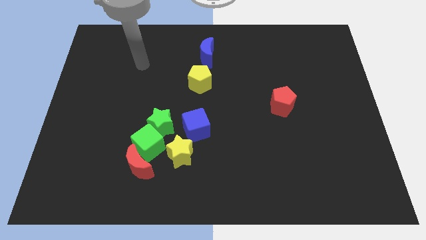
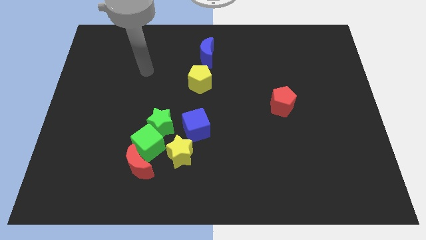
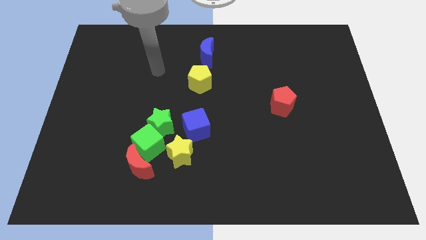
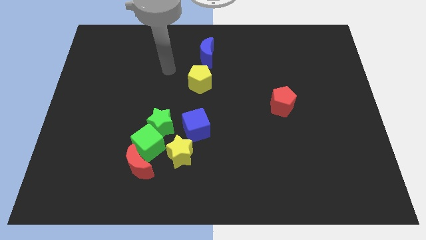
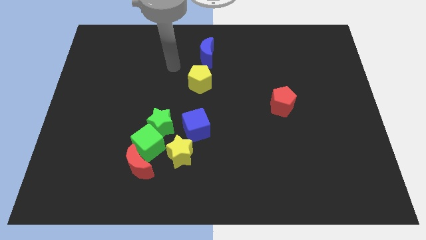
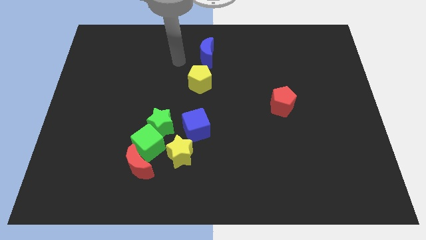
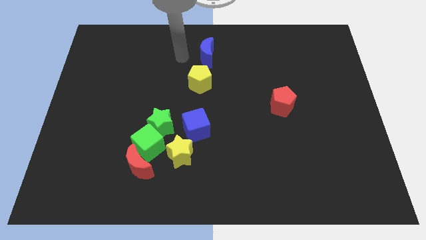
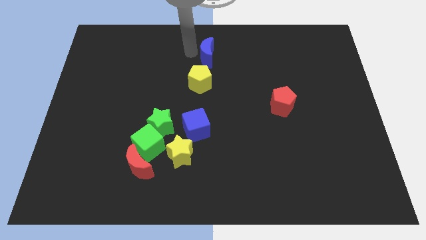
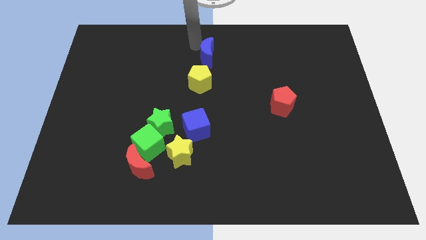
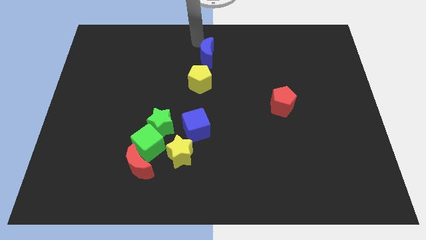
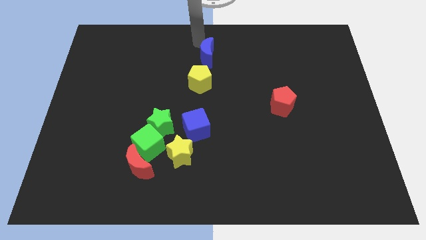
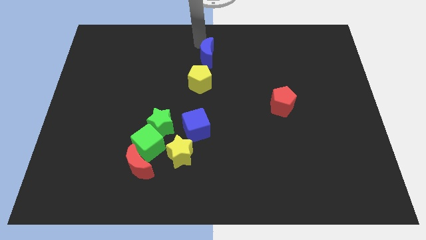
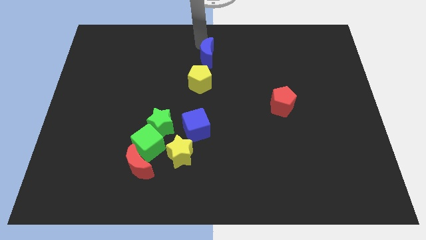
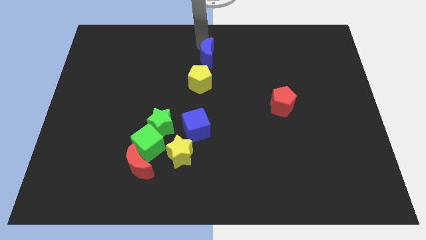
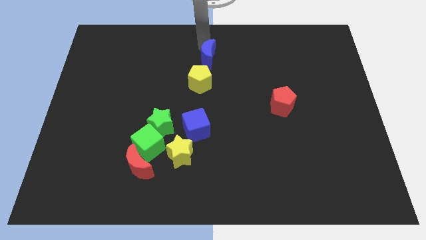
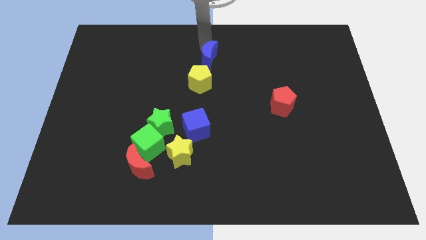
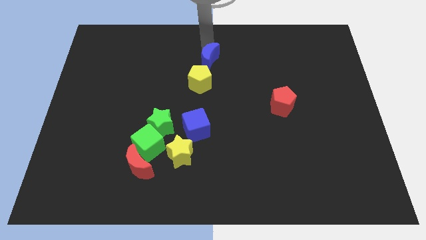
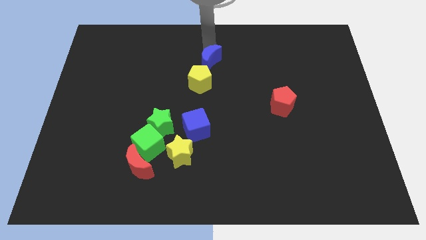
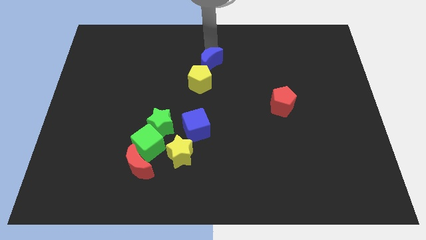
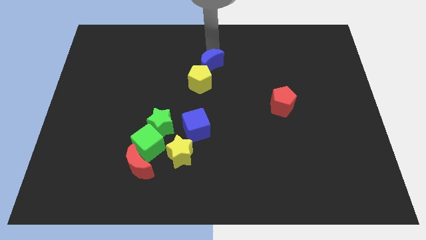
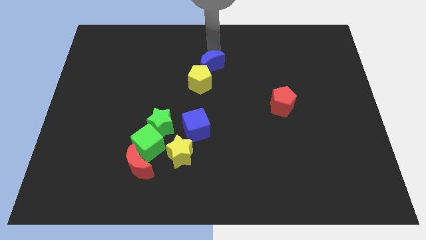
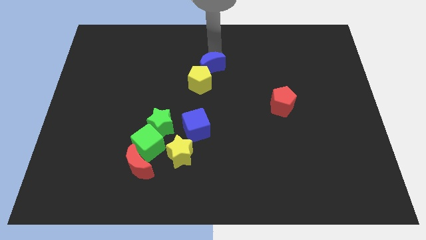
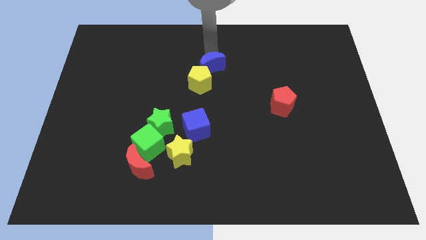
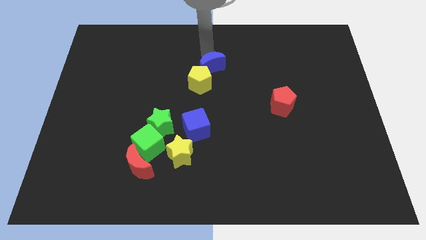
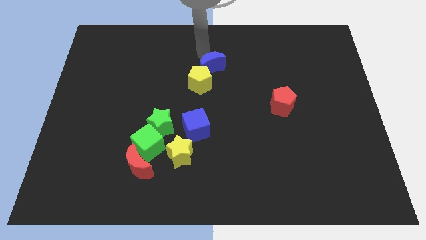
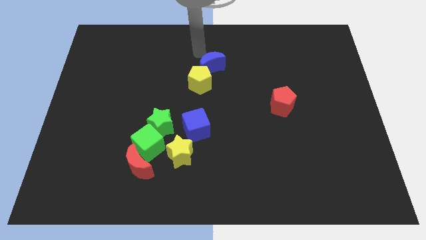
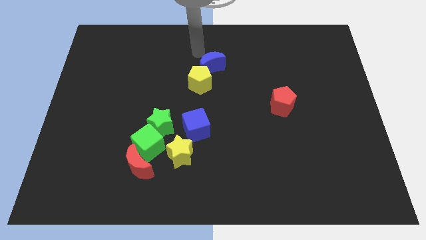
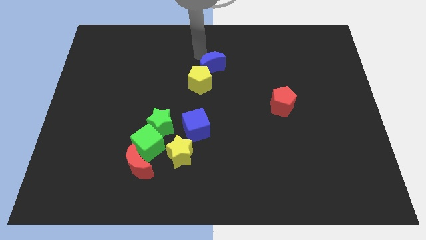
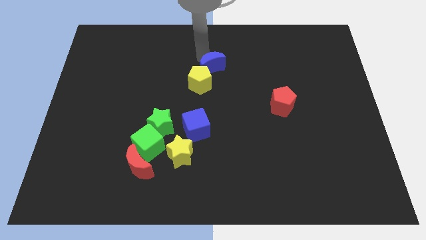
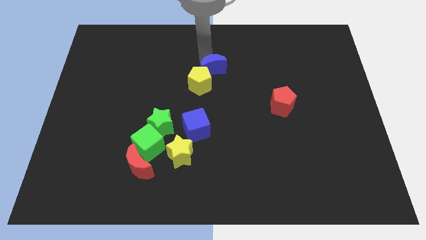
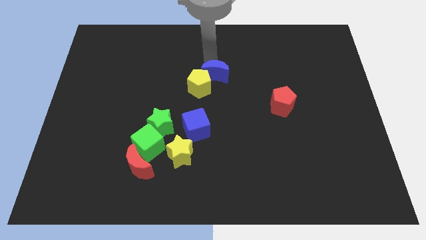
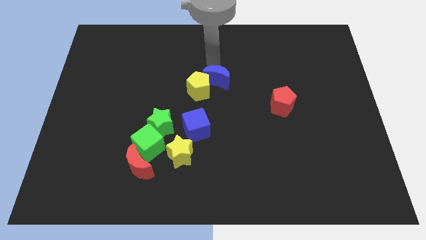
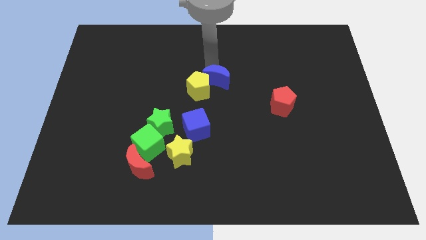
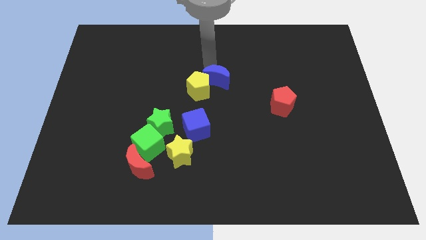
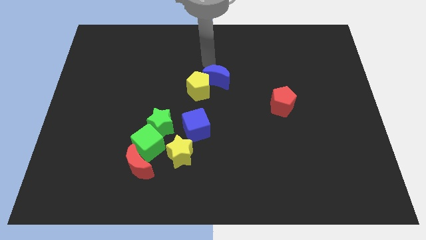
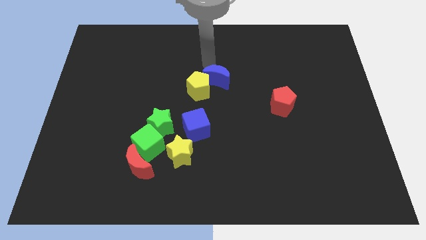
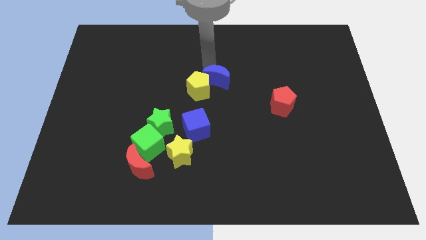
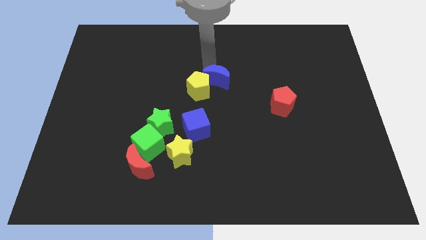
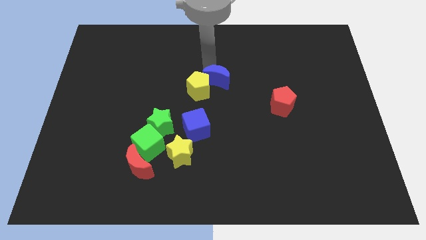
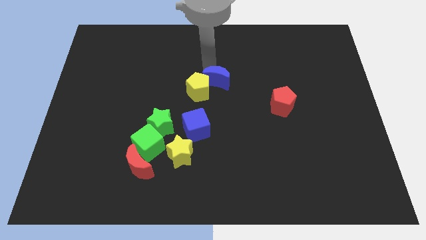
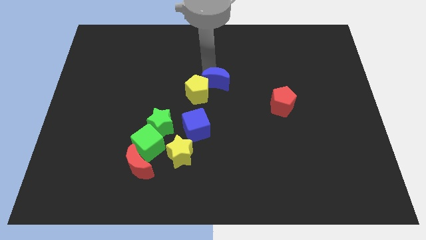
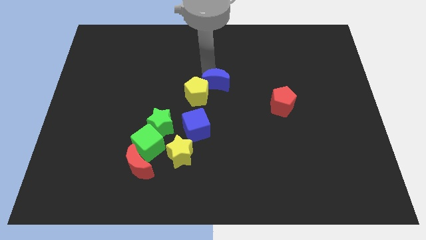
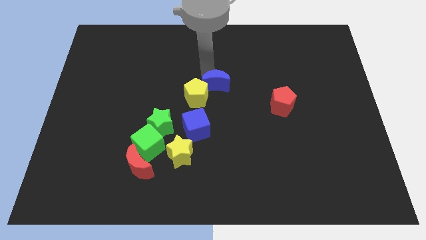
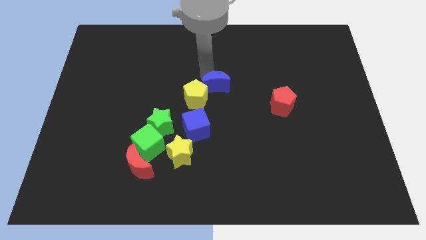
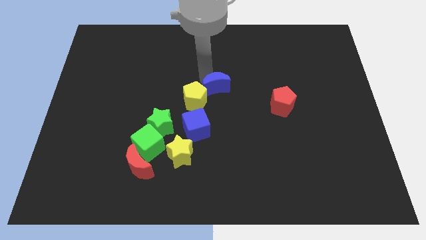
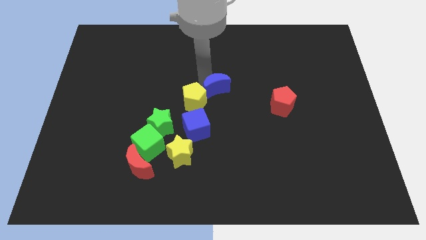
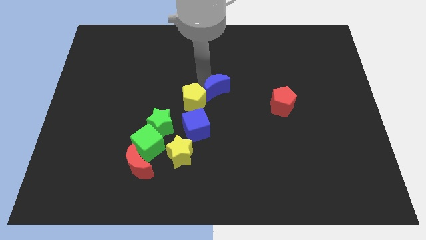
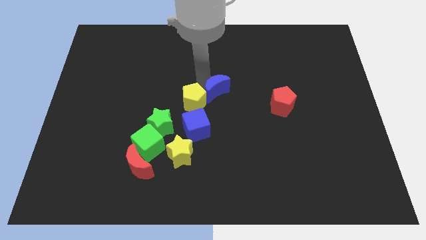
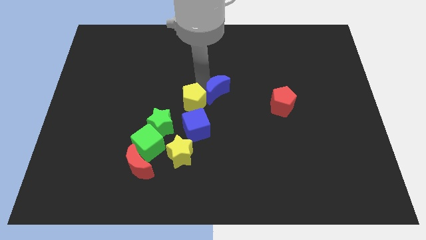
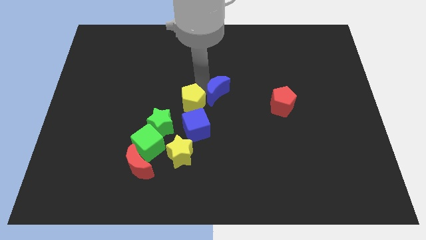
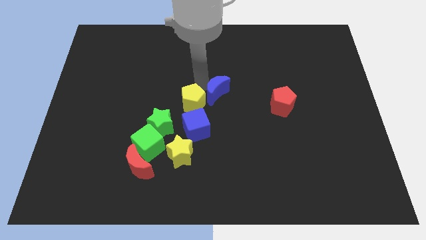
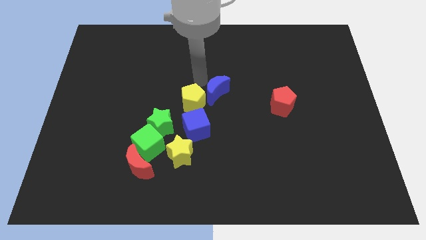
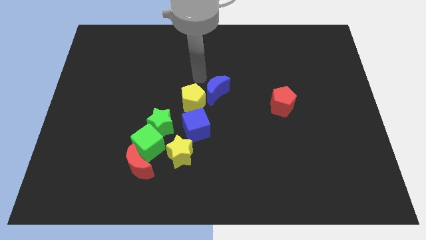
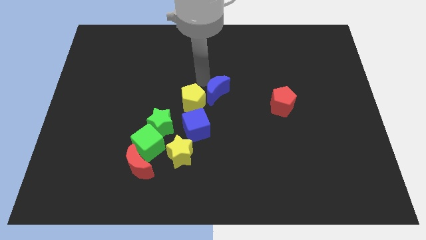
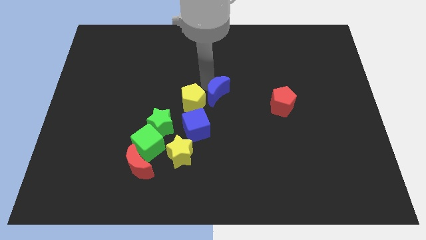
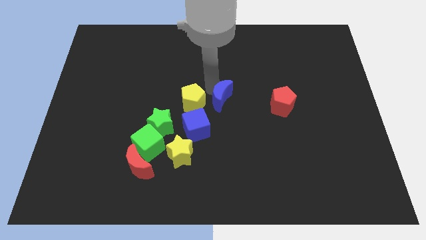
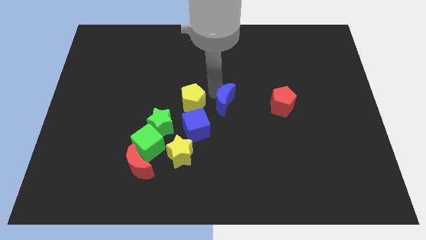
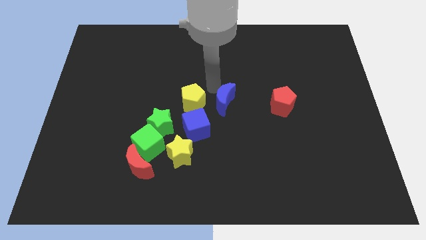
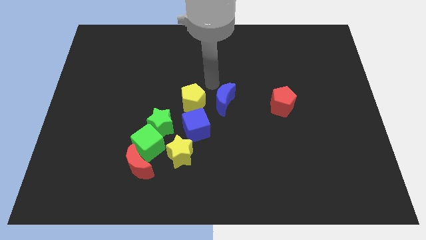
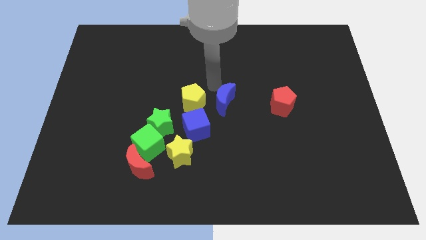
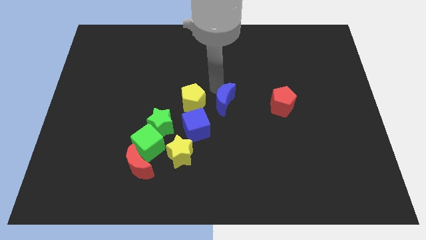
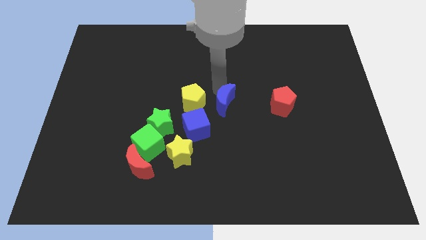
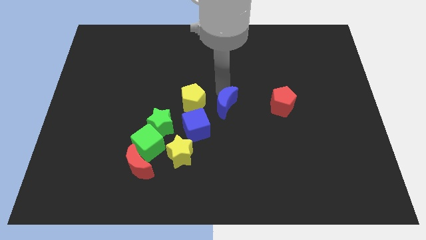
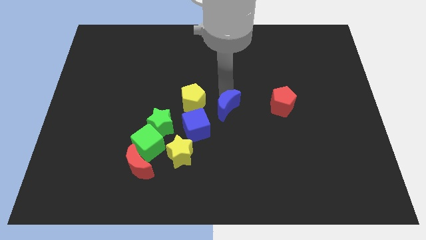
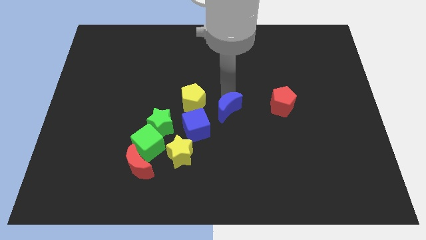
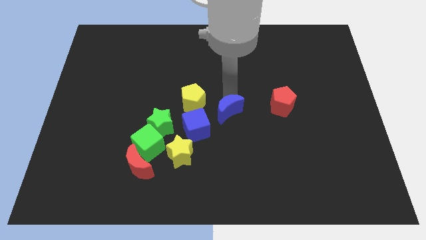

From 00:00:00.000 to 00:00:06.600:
push the blue moon to the right side of the blue cube
